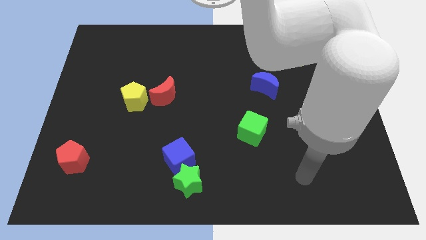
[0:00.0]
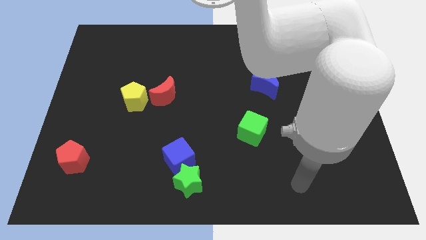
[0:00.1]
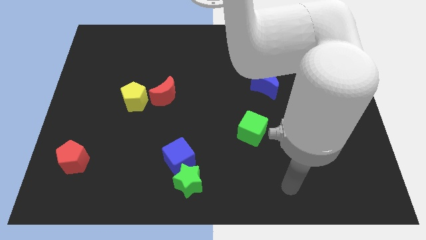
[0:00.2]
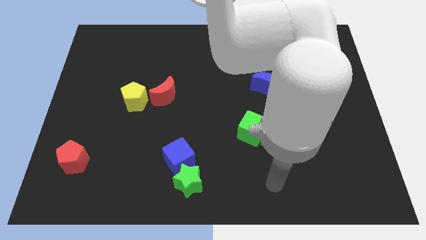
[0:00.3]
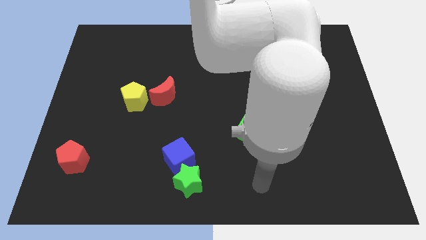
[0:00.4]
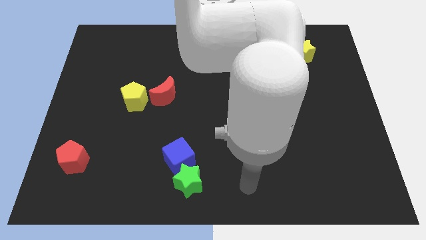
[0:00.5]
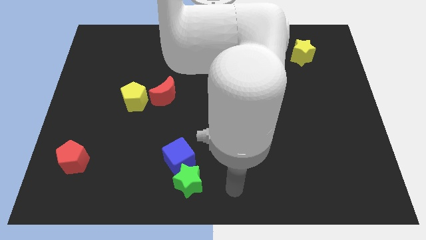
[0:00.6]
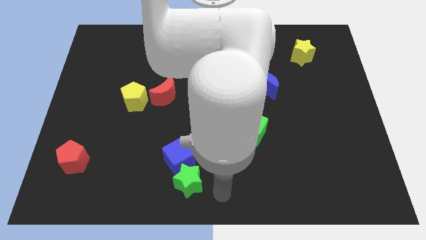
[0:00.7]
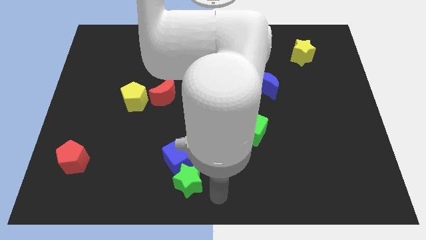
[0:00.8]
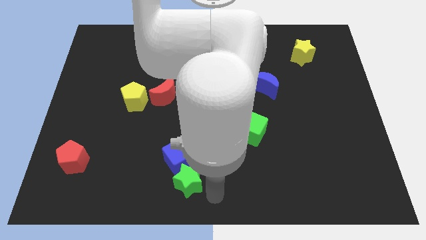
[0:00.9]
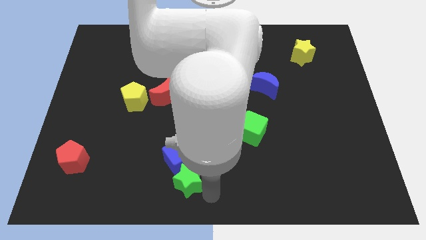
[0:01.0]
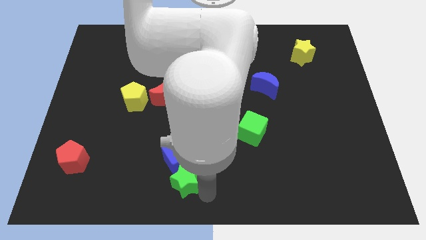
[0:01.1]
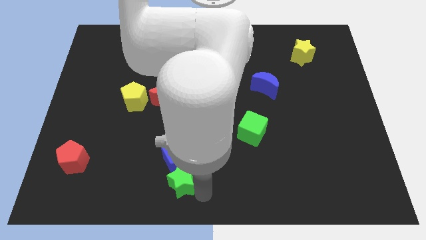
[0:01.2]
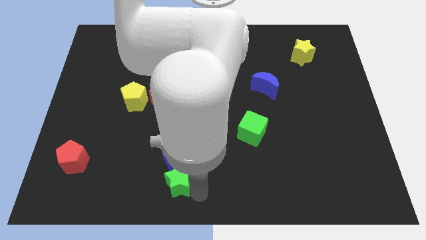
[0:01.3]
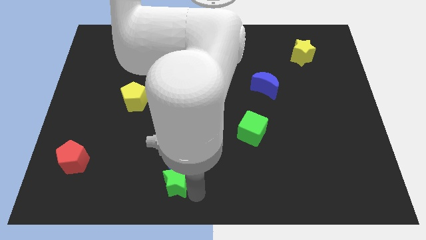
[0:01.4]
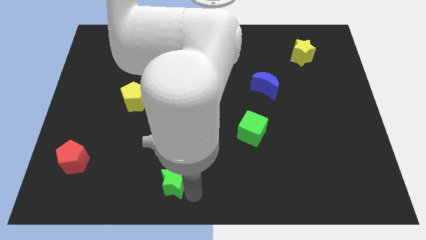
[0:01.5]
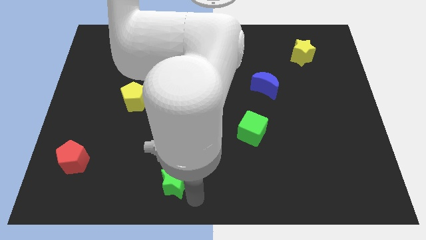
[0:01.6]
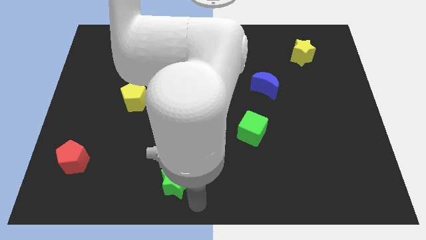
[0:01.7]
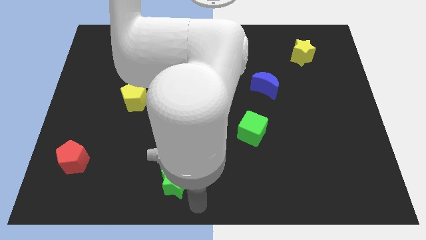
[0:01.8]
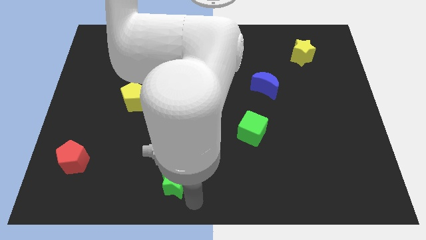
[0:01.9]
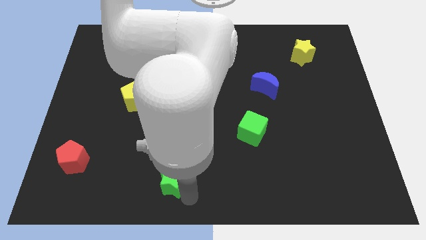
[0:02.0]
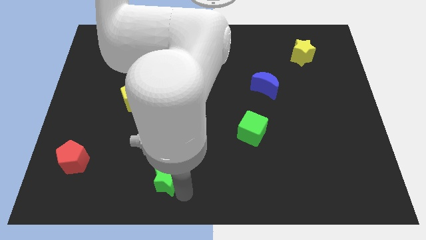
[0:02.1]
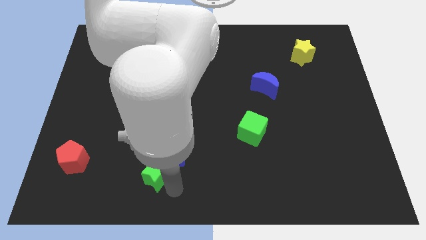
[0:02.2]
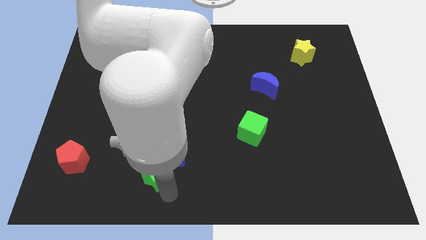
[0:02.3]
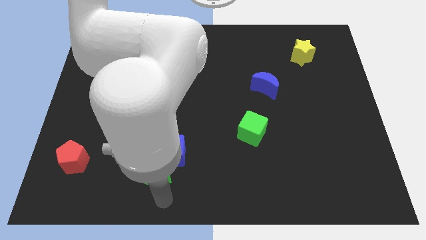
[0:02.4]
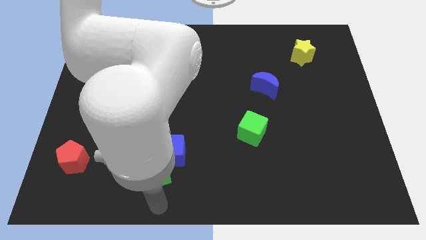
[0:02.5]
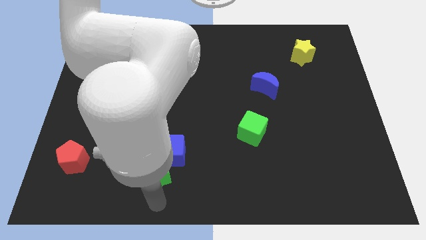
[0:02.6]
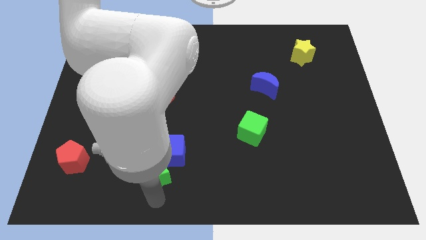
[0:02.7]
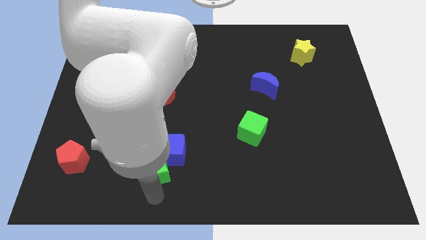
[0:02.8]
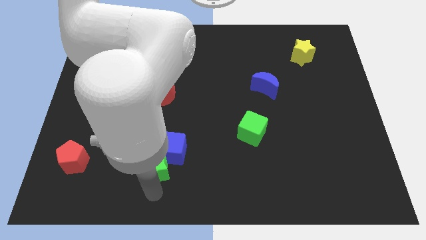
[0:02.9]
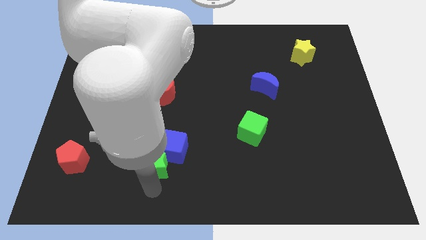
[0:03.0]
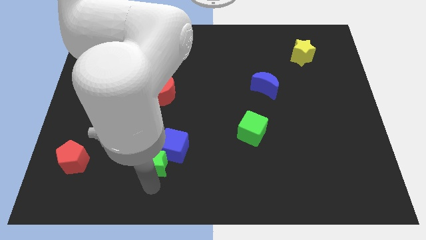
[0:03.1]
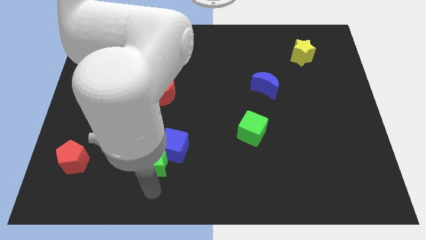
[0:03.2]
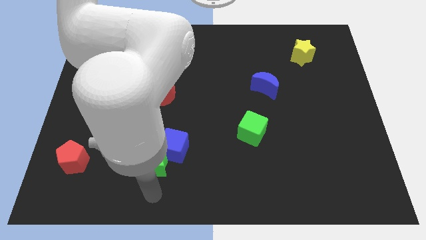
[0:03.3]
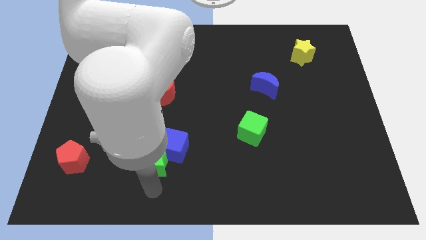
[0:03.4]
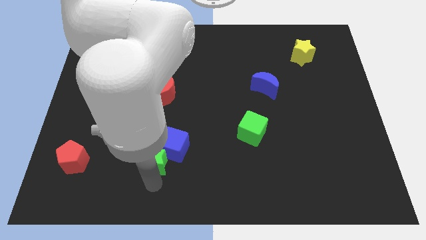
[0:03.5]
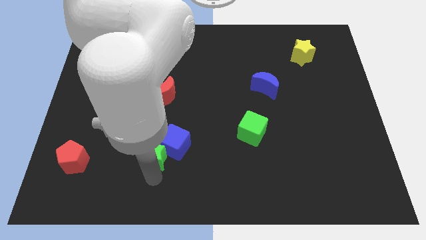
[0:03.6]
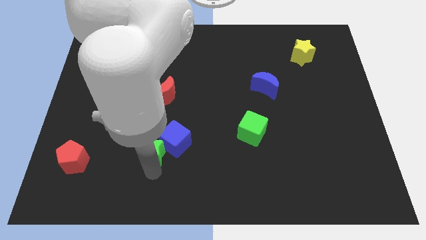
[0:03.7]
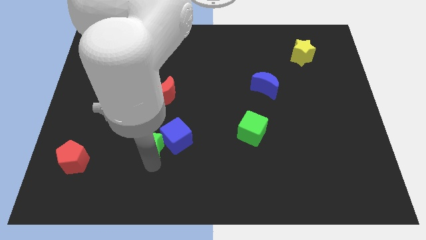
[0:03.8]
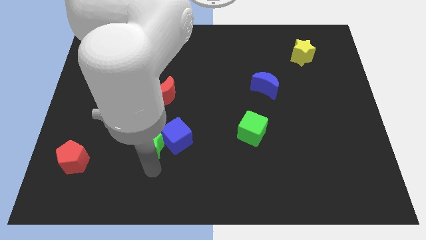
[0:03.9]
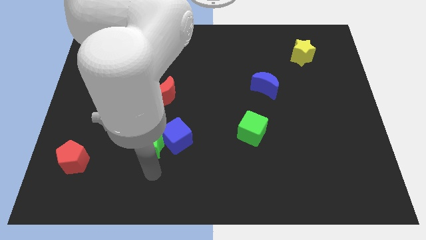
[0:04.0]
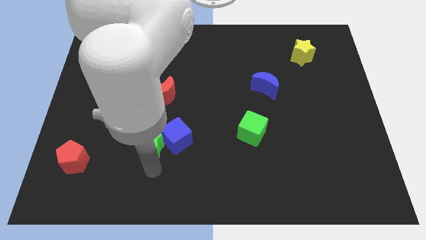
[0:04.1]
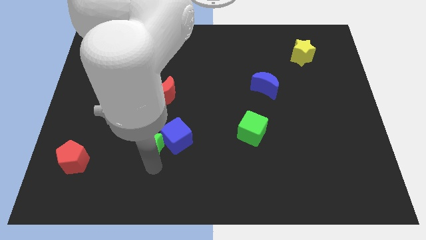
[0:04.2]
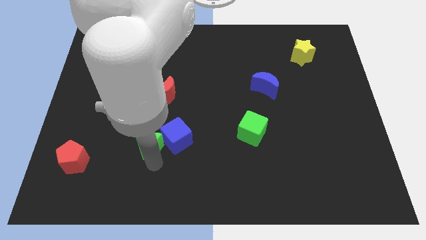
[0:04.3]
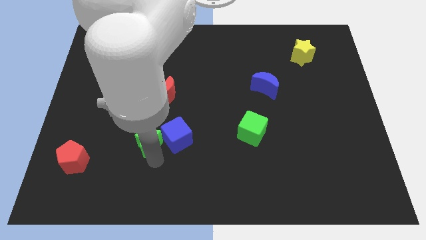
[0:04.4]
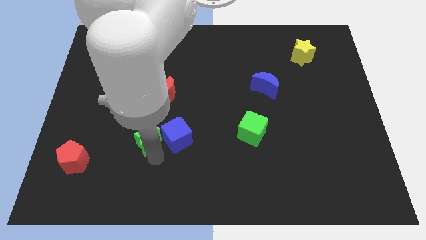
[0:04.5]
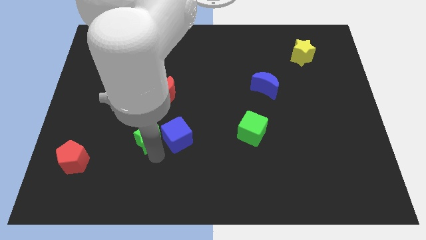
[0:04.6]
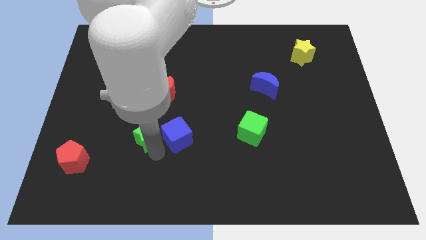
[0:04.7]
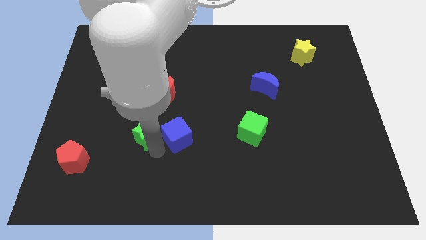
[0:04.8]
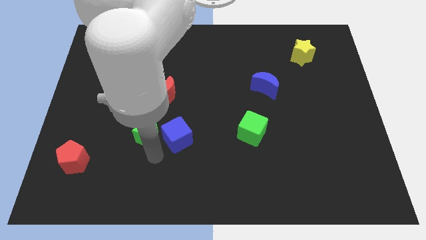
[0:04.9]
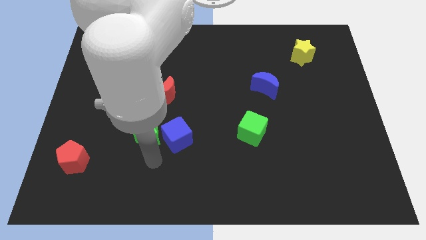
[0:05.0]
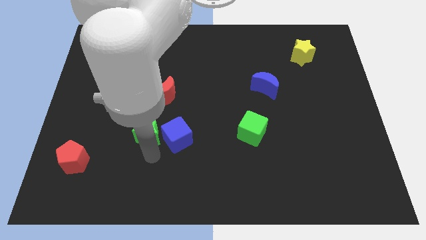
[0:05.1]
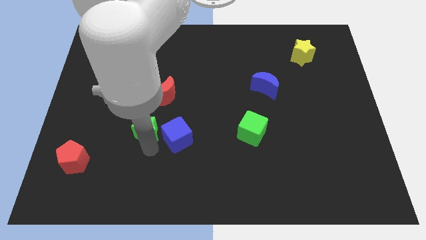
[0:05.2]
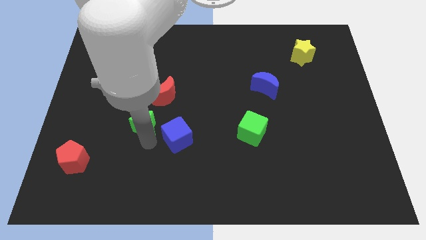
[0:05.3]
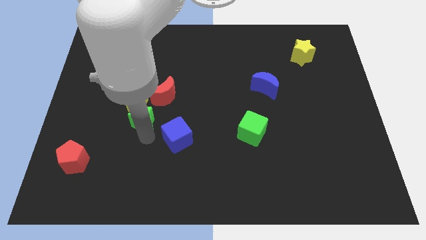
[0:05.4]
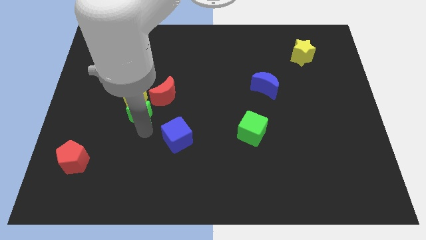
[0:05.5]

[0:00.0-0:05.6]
push the green star towards the yellow pentagon

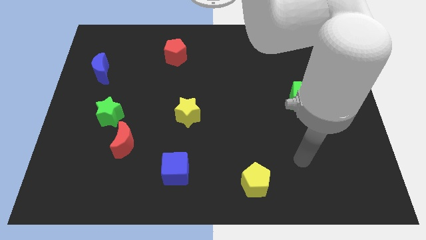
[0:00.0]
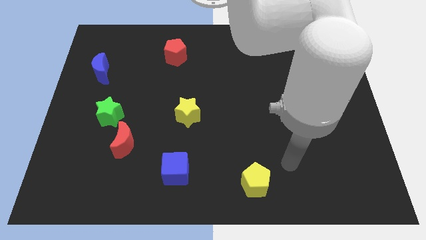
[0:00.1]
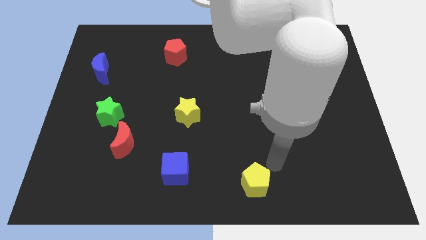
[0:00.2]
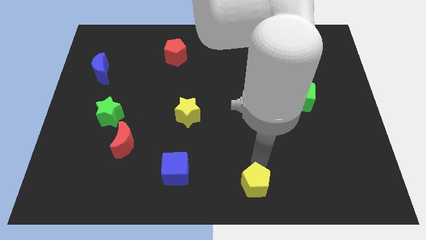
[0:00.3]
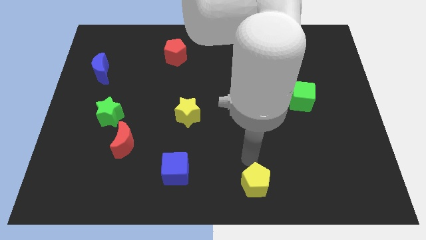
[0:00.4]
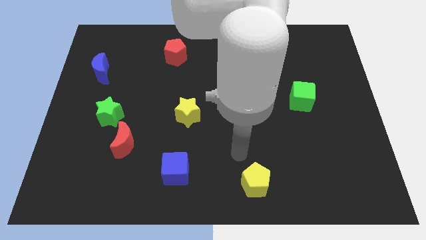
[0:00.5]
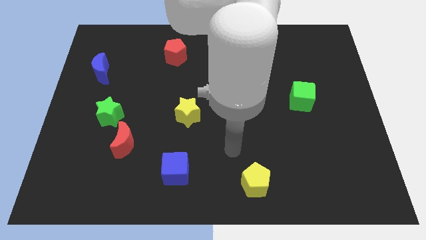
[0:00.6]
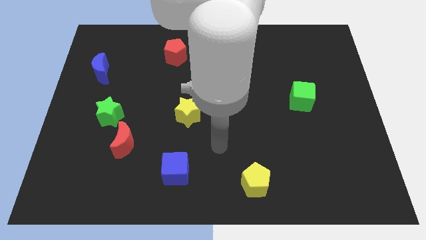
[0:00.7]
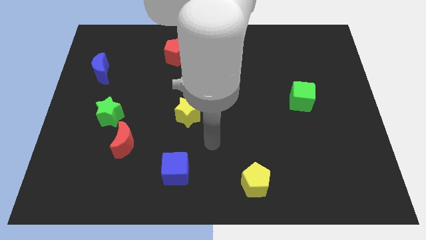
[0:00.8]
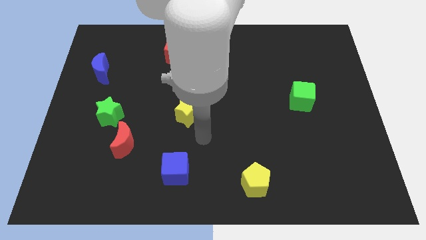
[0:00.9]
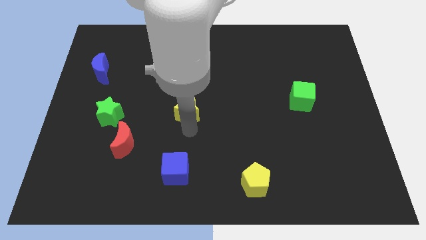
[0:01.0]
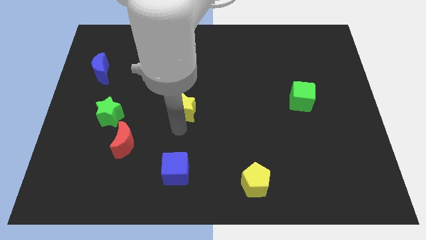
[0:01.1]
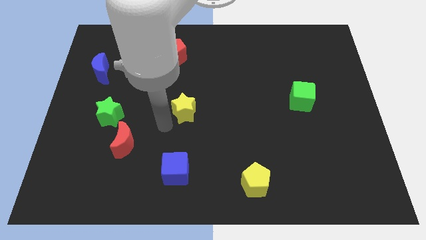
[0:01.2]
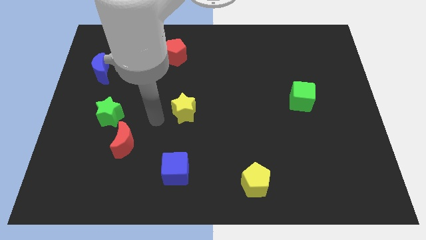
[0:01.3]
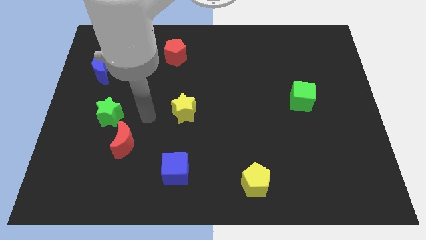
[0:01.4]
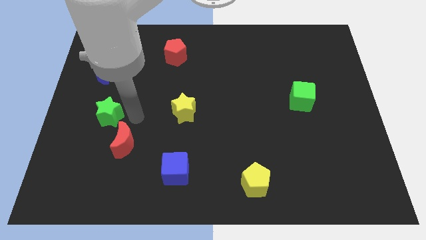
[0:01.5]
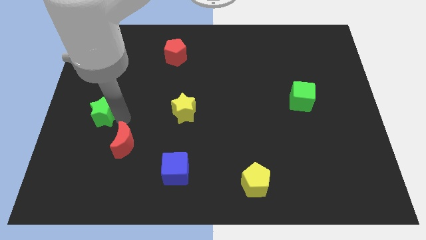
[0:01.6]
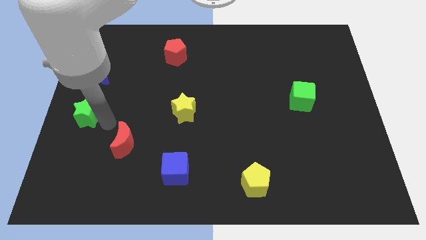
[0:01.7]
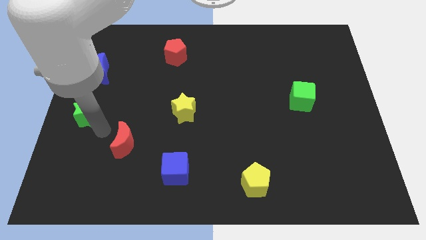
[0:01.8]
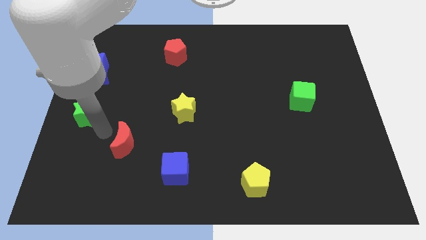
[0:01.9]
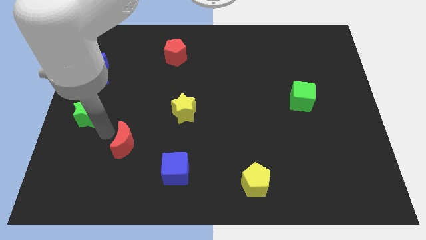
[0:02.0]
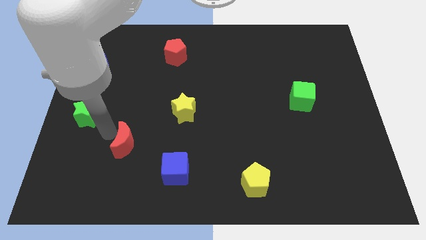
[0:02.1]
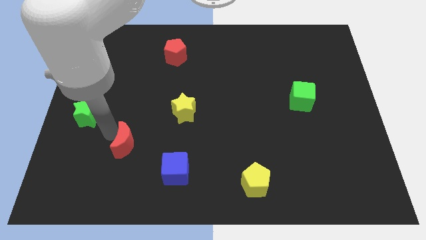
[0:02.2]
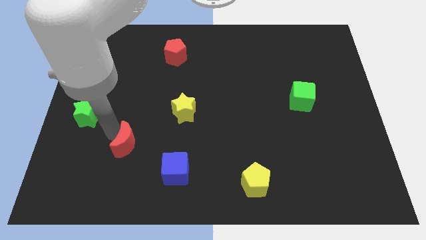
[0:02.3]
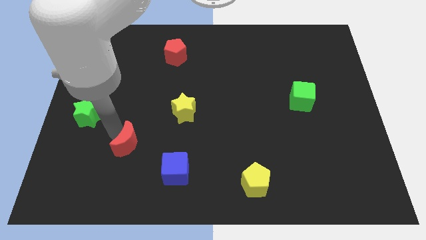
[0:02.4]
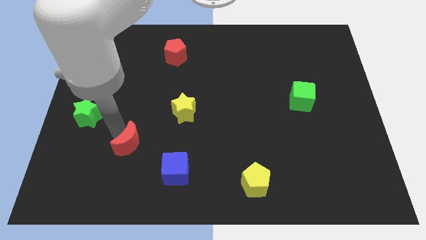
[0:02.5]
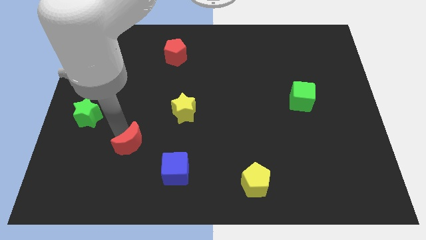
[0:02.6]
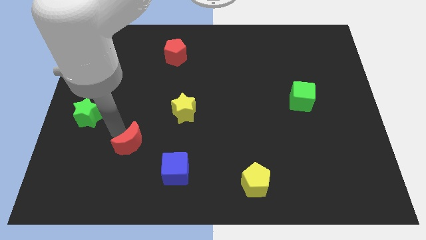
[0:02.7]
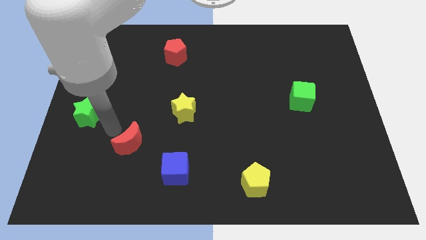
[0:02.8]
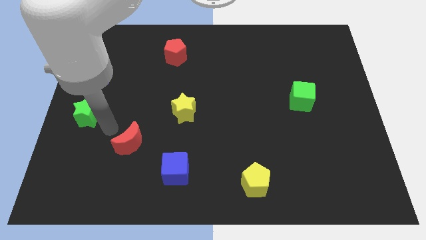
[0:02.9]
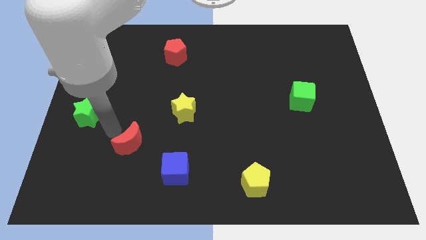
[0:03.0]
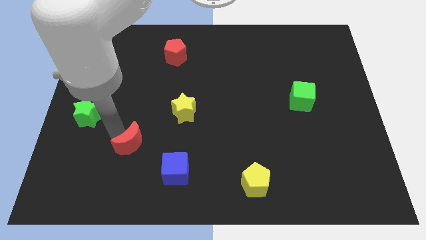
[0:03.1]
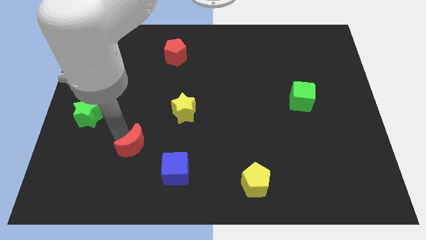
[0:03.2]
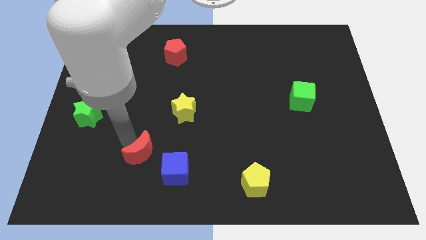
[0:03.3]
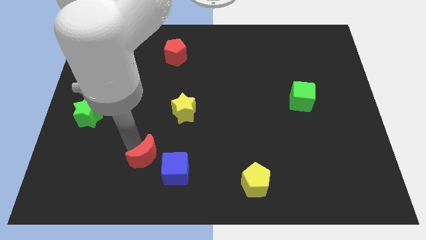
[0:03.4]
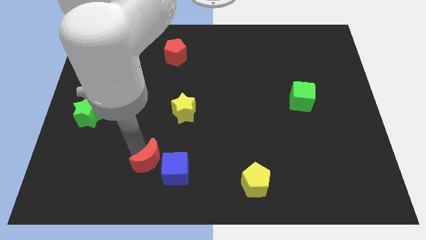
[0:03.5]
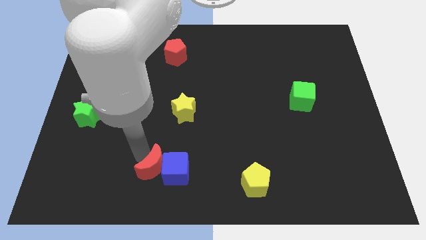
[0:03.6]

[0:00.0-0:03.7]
put the red moon close to the blue cube
